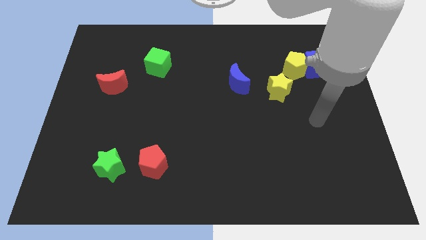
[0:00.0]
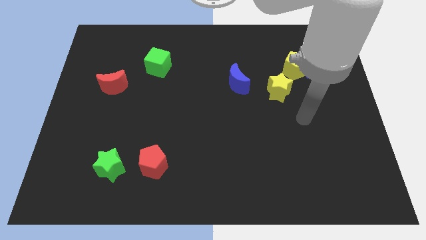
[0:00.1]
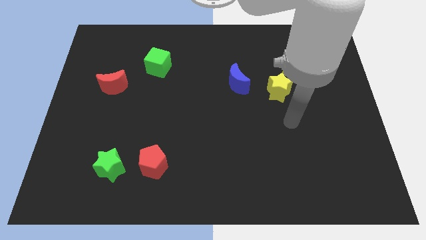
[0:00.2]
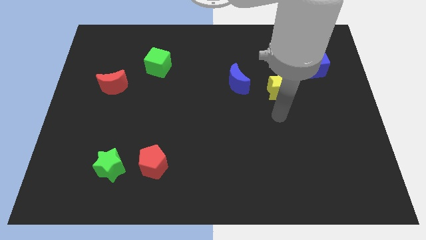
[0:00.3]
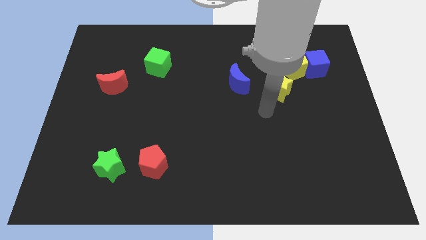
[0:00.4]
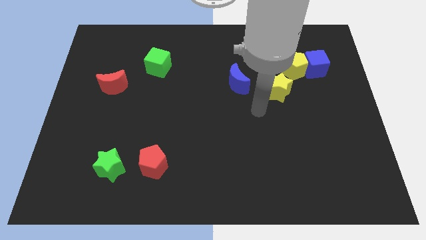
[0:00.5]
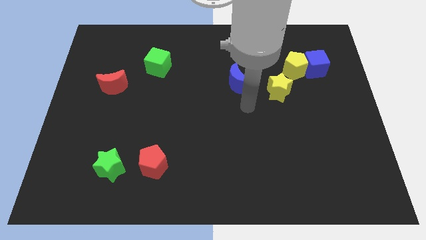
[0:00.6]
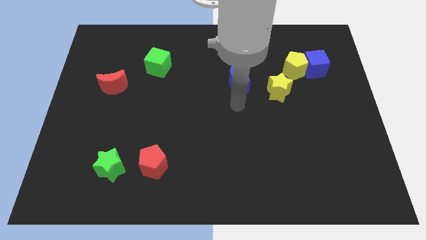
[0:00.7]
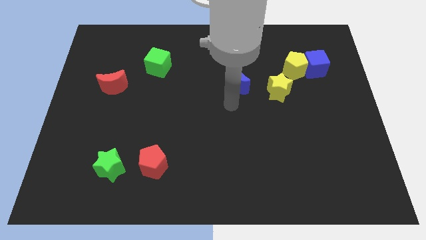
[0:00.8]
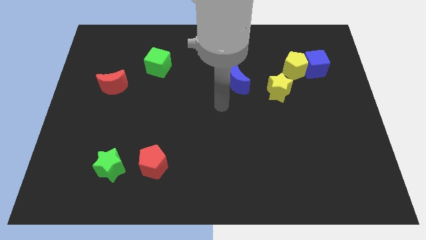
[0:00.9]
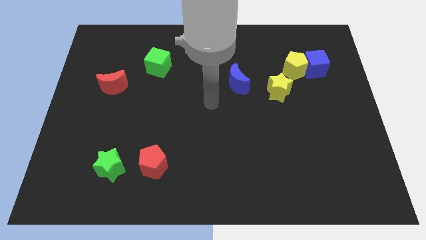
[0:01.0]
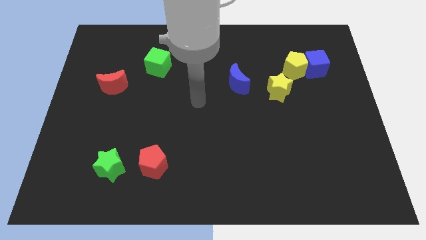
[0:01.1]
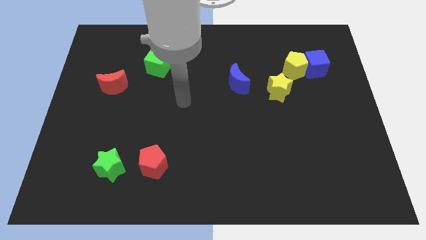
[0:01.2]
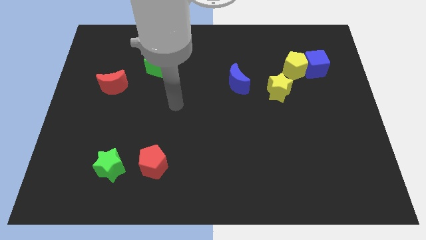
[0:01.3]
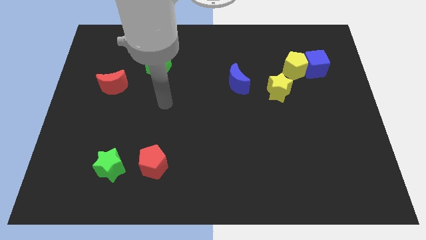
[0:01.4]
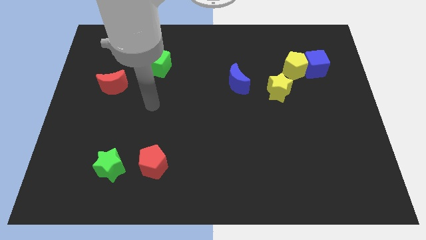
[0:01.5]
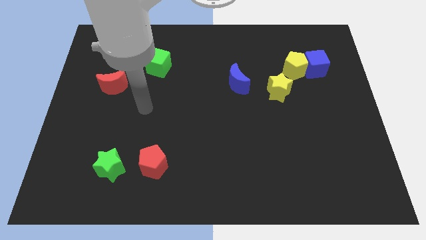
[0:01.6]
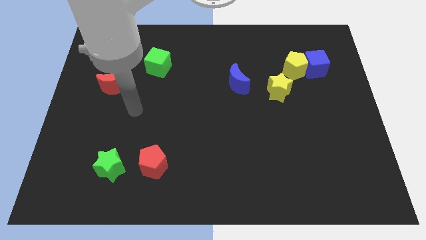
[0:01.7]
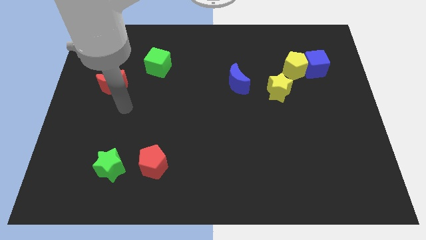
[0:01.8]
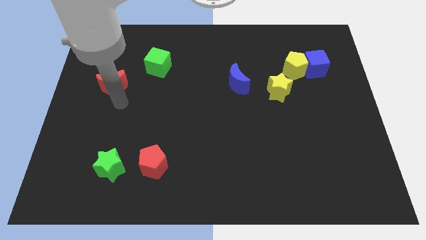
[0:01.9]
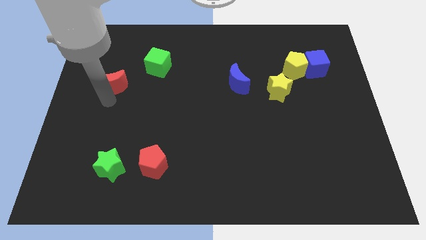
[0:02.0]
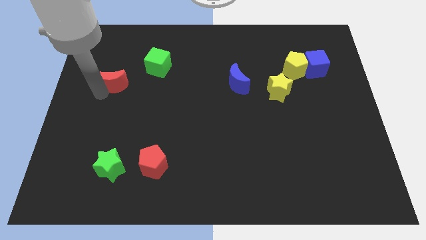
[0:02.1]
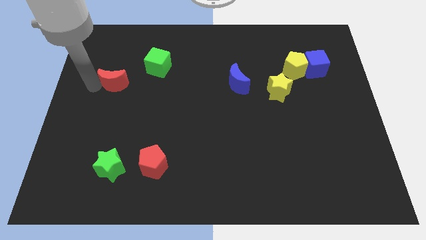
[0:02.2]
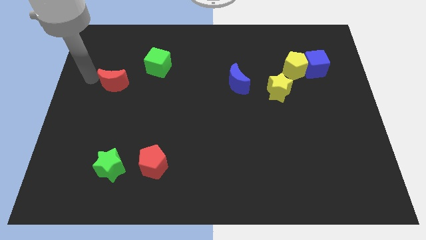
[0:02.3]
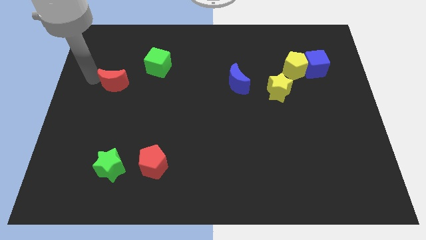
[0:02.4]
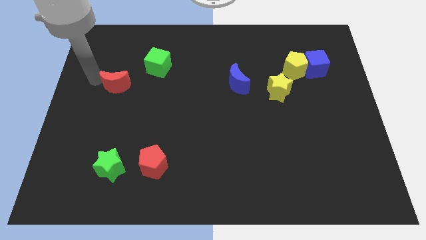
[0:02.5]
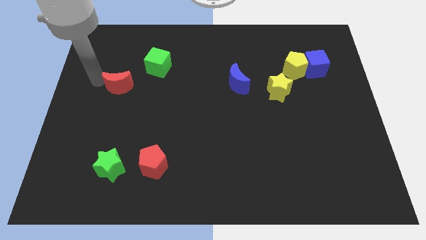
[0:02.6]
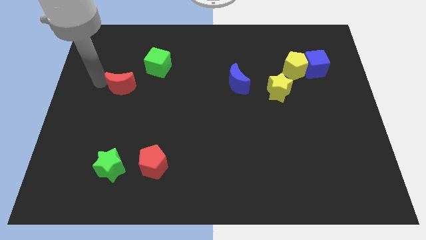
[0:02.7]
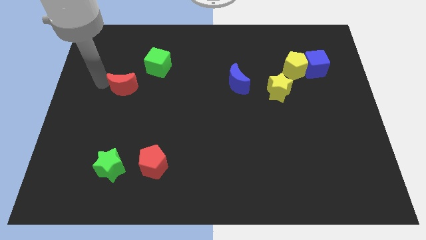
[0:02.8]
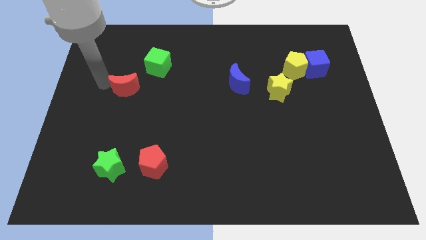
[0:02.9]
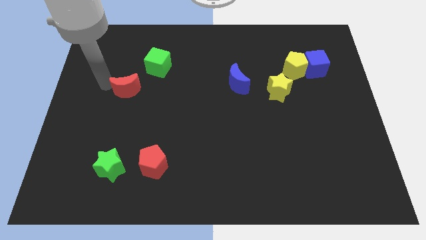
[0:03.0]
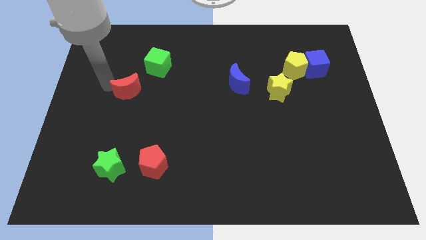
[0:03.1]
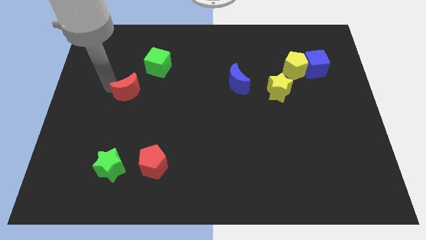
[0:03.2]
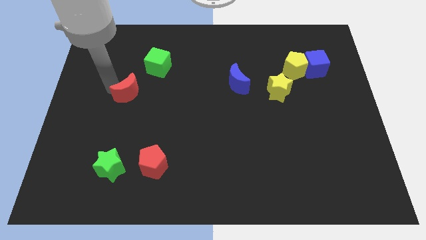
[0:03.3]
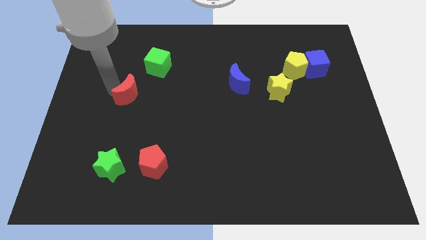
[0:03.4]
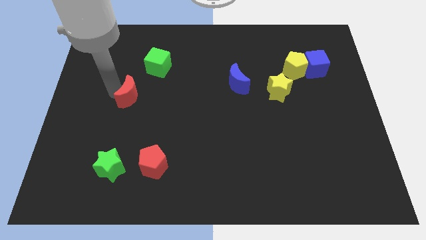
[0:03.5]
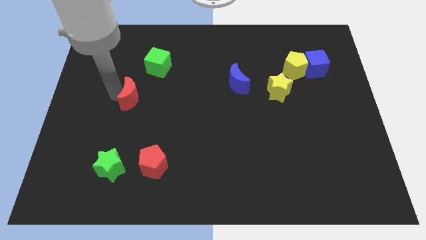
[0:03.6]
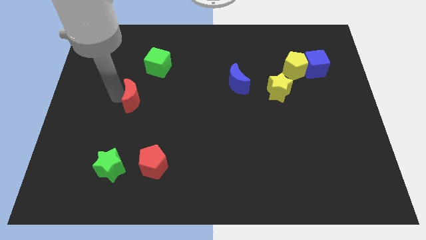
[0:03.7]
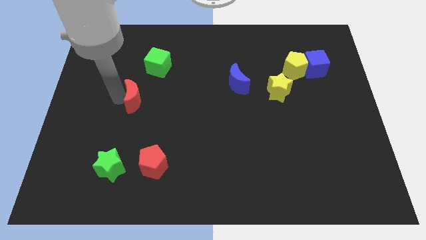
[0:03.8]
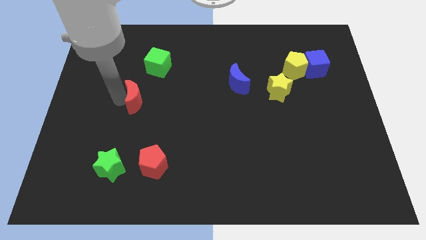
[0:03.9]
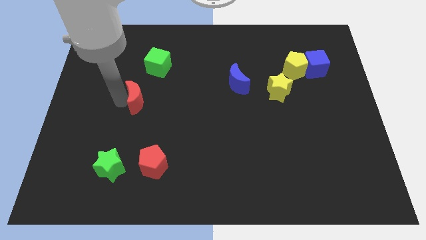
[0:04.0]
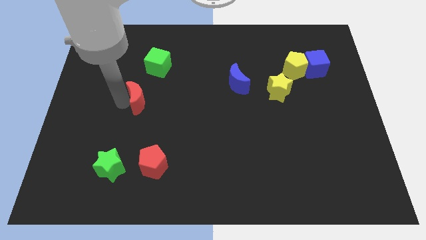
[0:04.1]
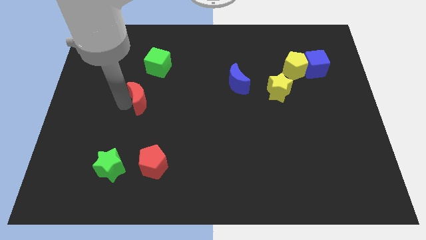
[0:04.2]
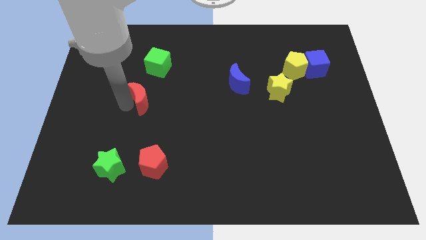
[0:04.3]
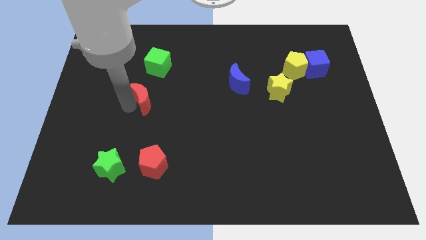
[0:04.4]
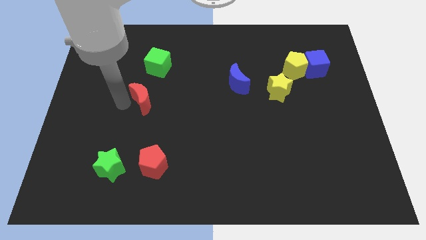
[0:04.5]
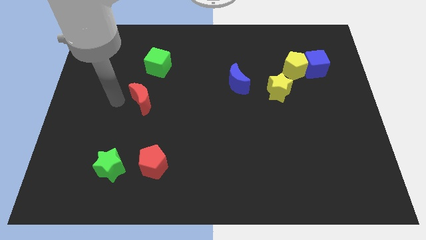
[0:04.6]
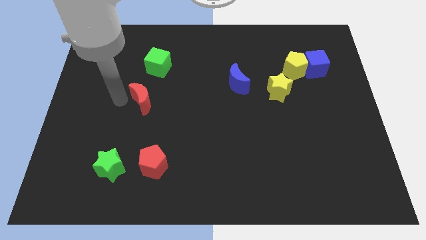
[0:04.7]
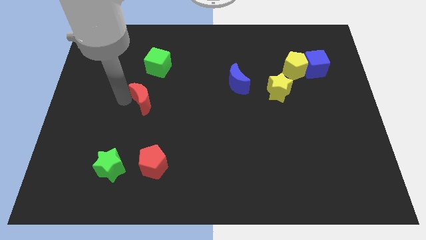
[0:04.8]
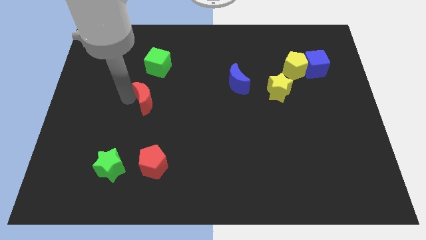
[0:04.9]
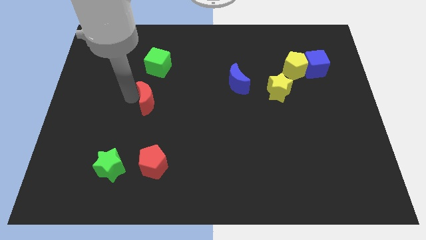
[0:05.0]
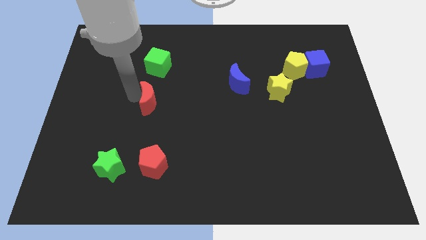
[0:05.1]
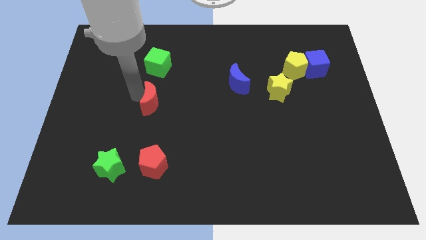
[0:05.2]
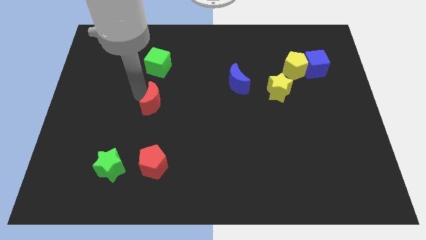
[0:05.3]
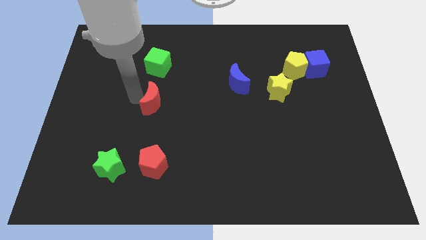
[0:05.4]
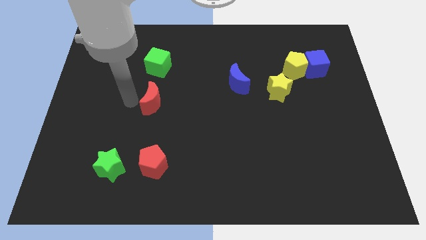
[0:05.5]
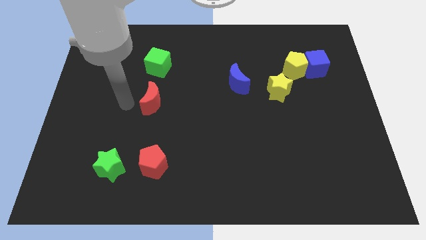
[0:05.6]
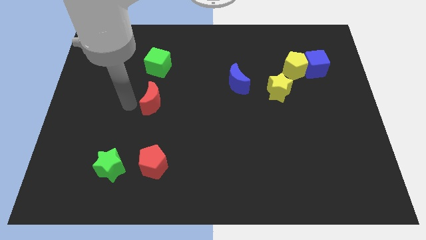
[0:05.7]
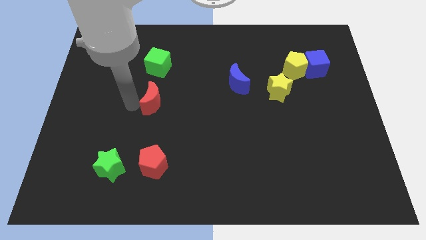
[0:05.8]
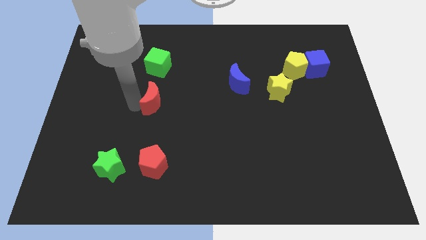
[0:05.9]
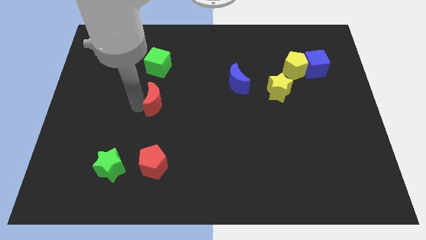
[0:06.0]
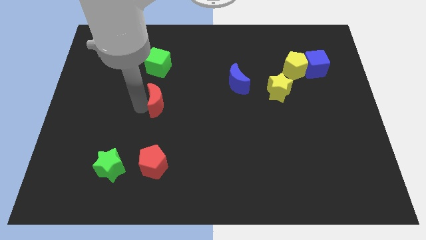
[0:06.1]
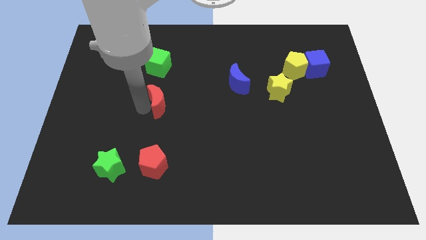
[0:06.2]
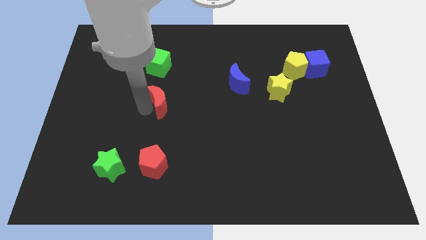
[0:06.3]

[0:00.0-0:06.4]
slide the red moon to the middle
